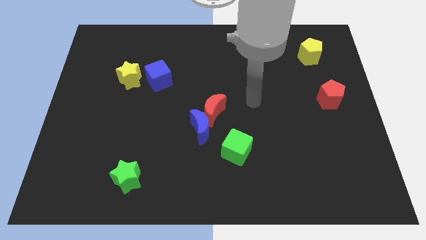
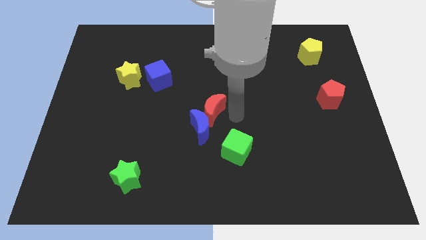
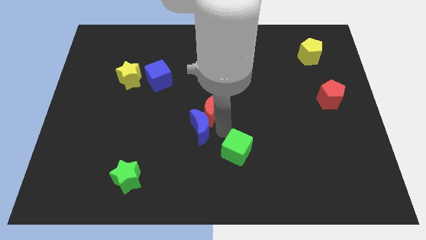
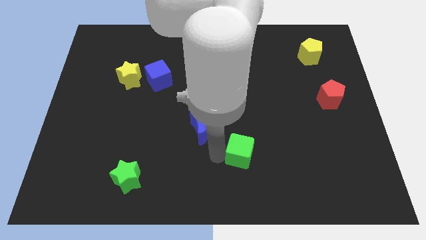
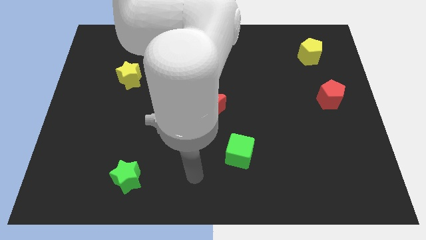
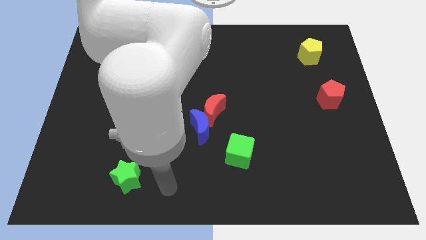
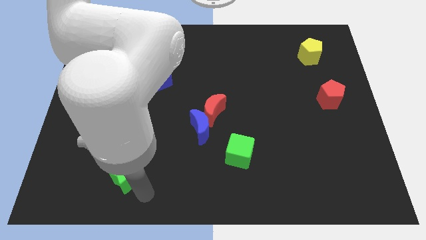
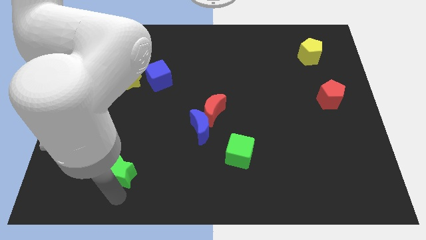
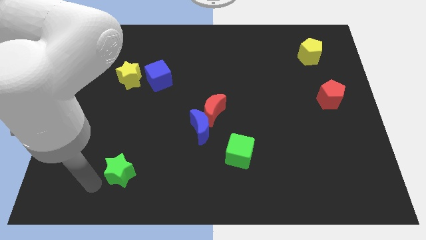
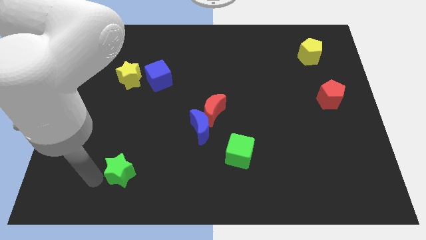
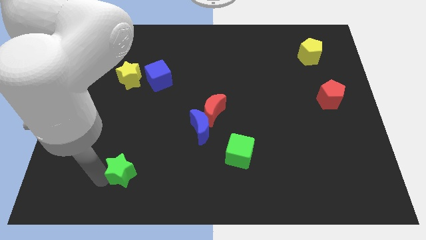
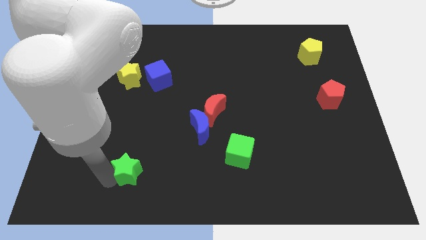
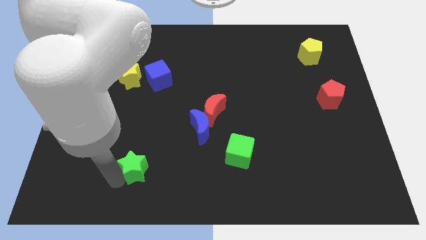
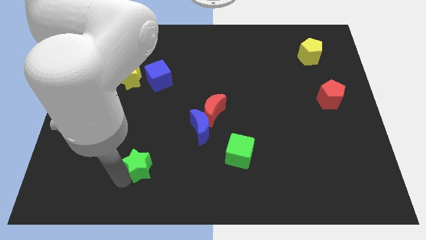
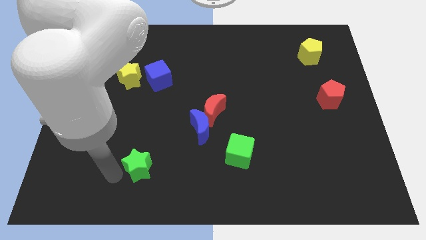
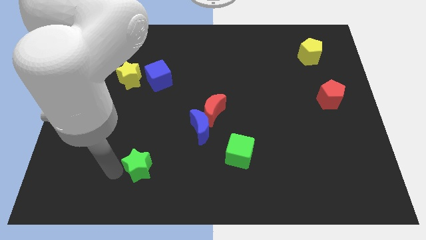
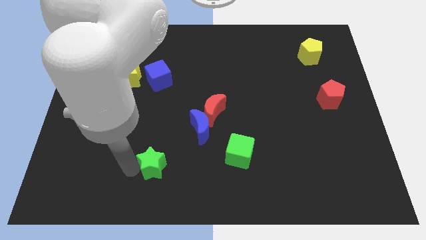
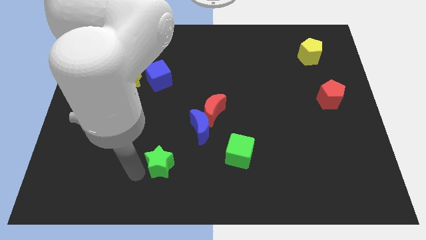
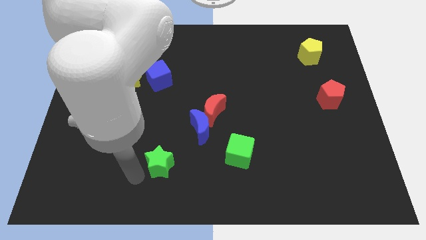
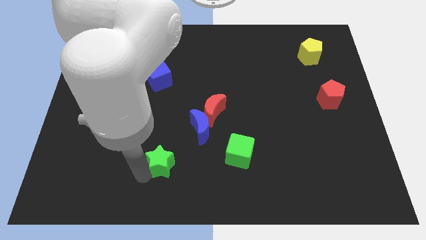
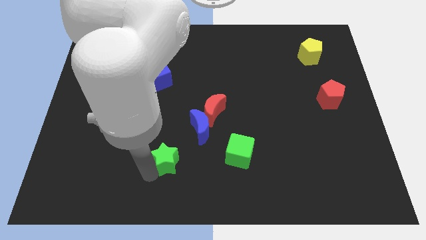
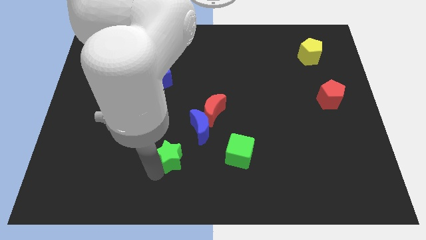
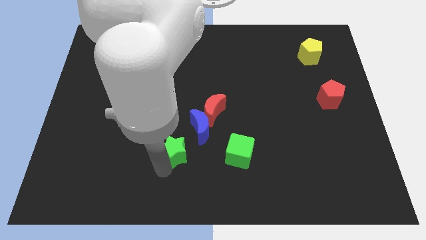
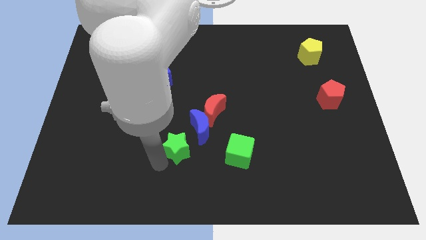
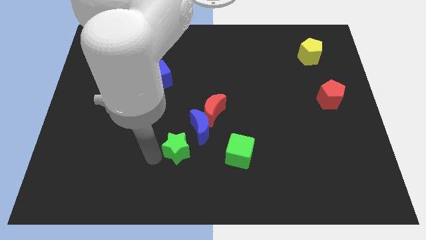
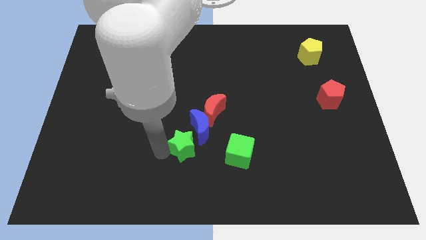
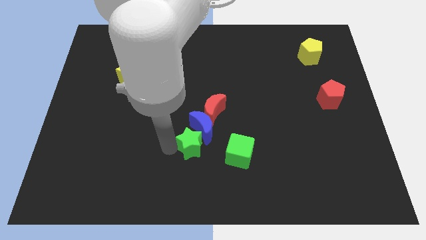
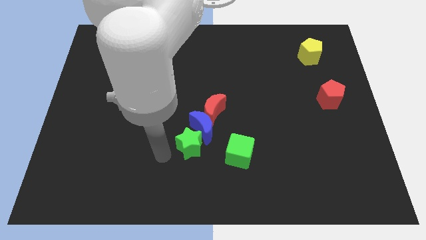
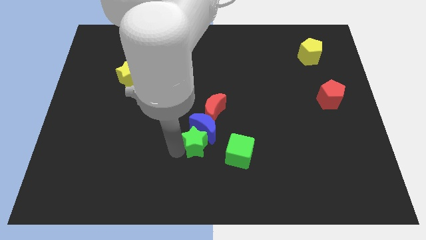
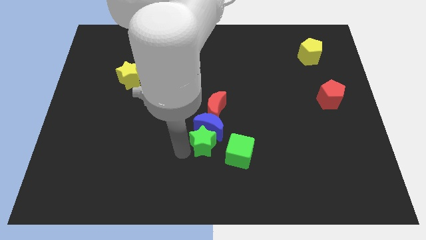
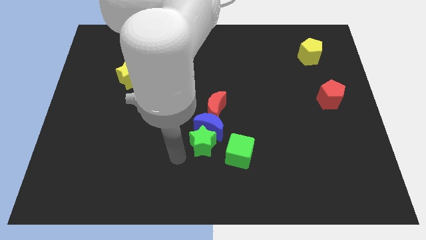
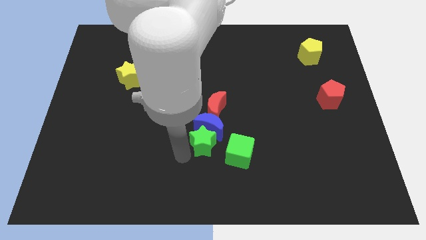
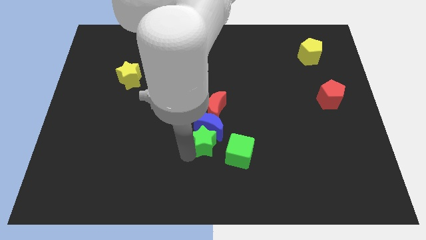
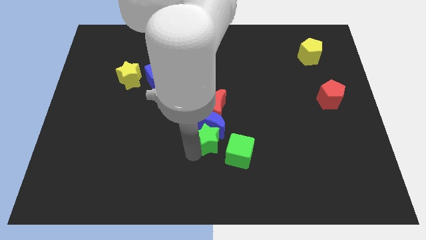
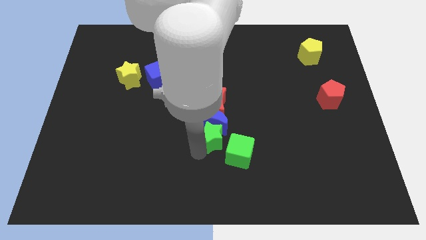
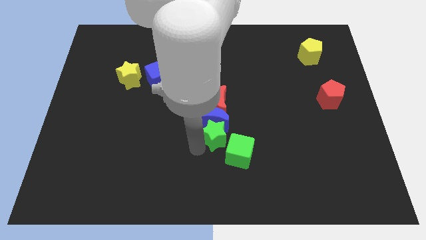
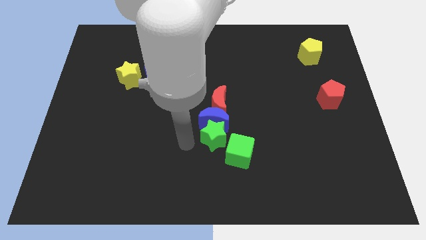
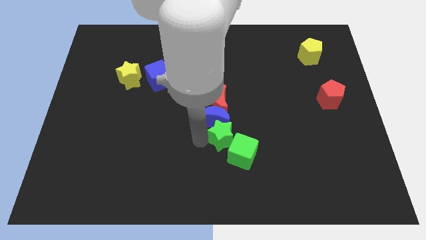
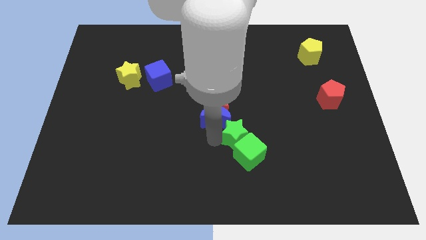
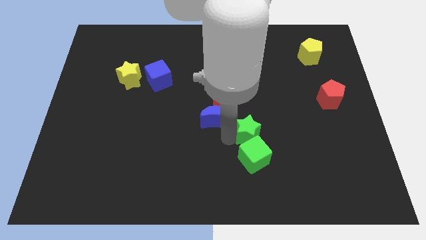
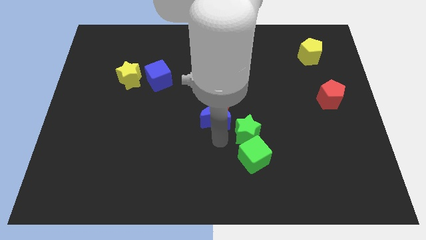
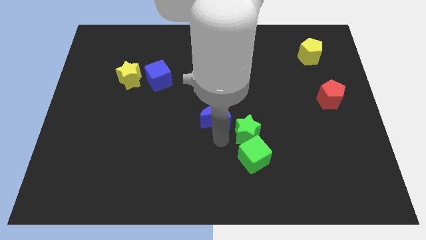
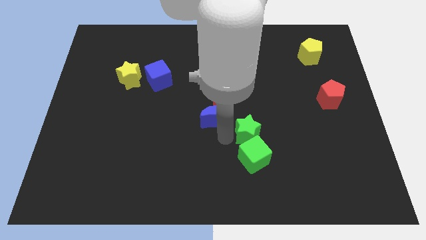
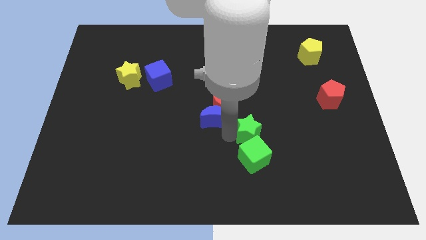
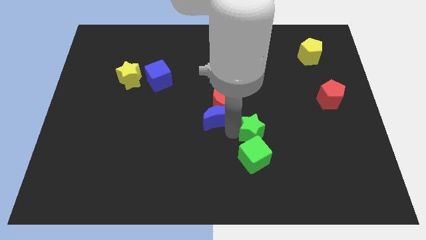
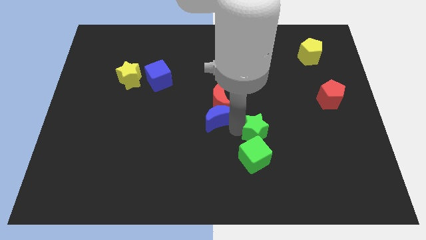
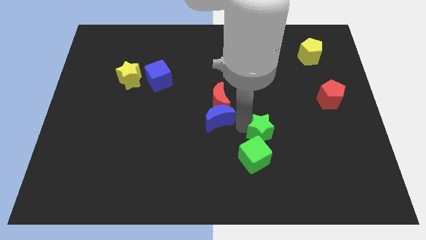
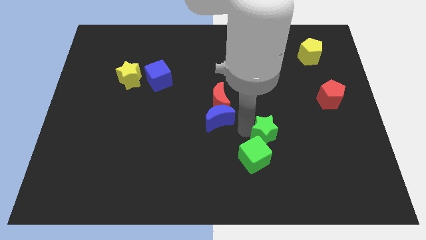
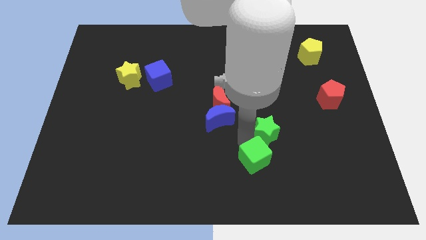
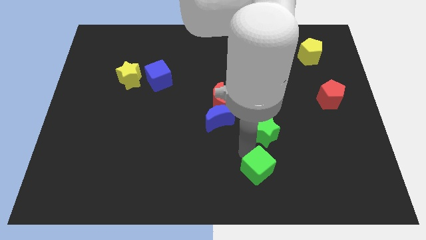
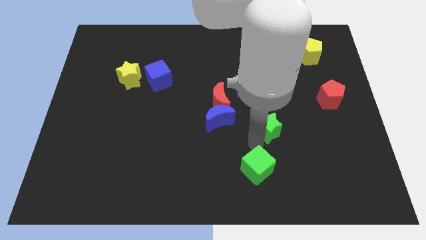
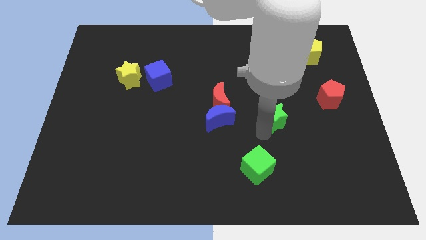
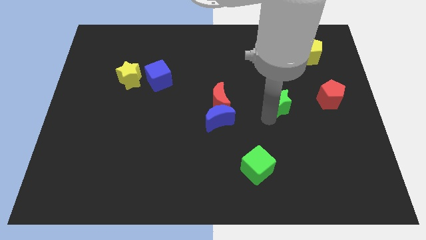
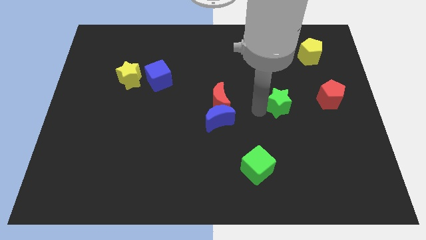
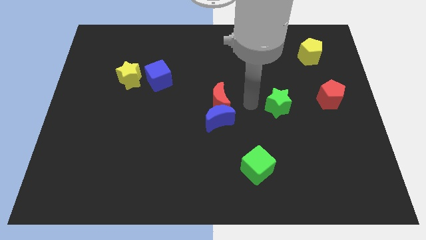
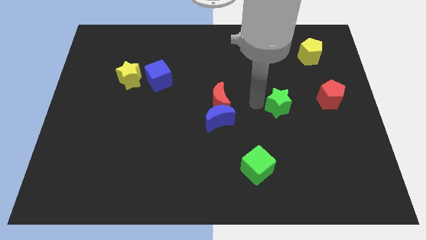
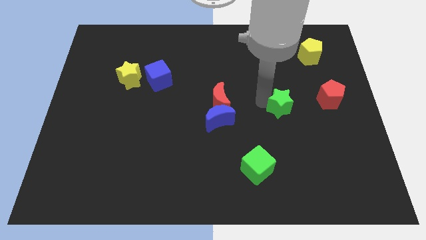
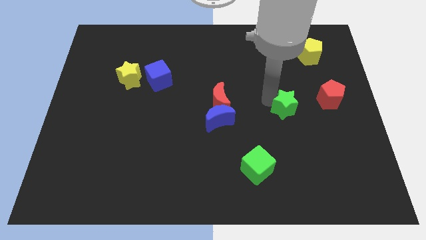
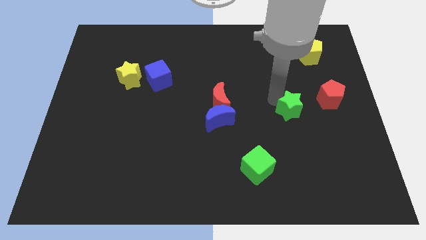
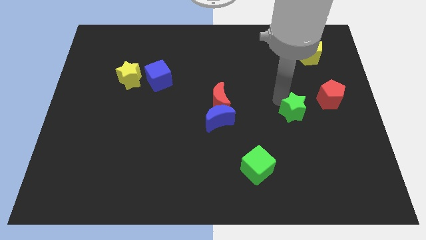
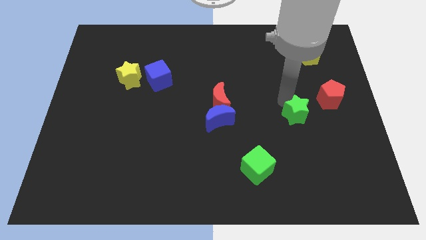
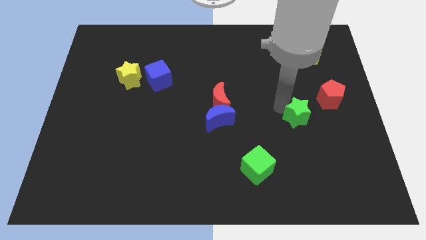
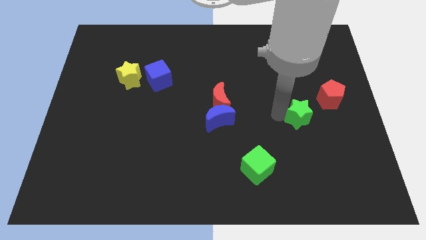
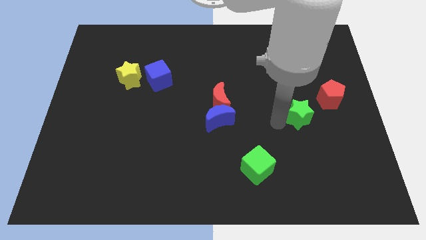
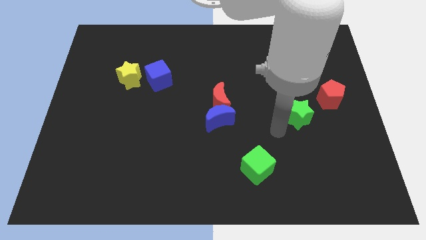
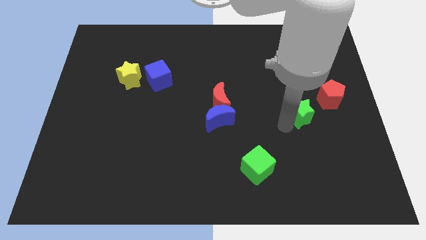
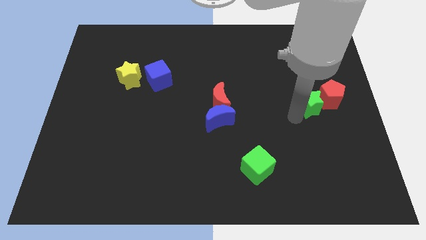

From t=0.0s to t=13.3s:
put the green star towards the red pentagon

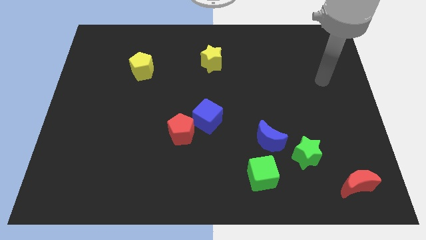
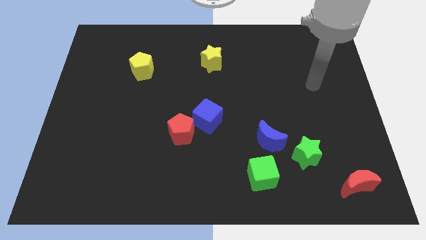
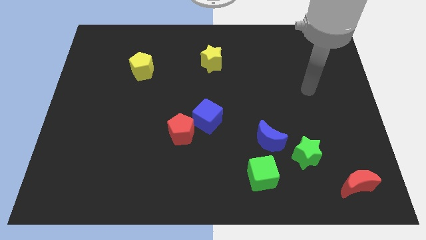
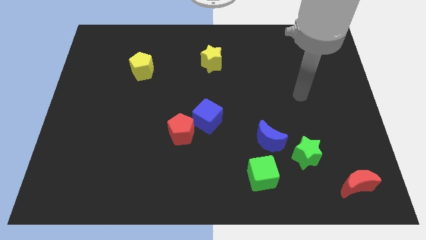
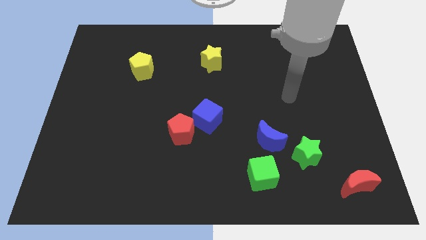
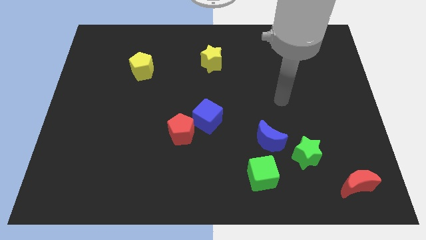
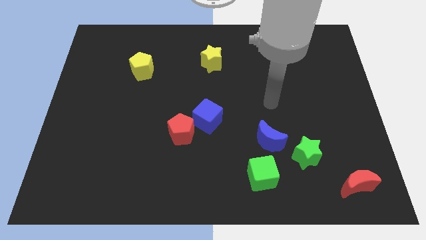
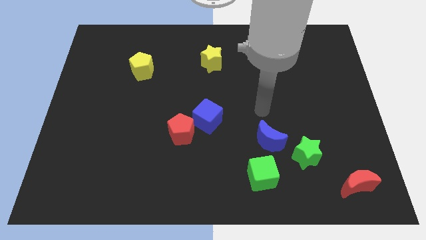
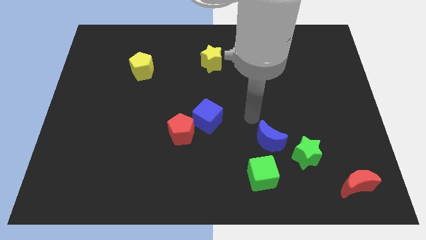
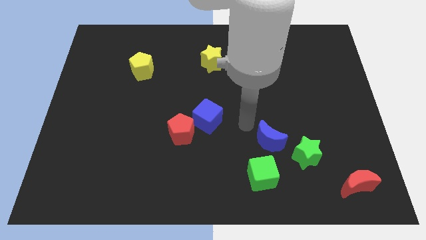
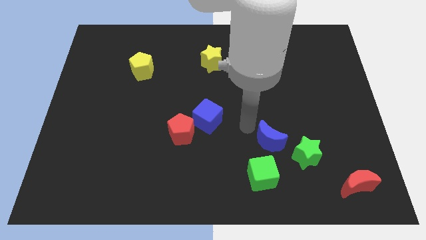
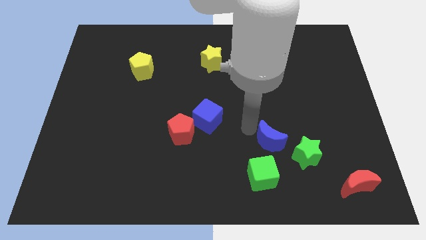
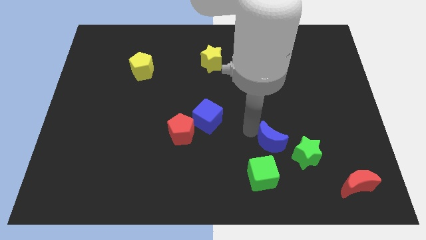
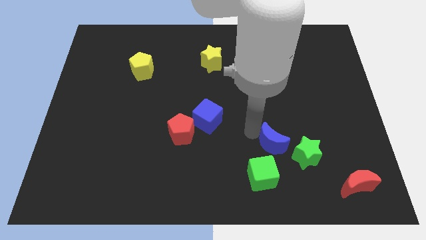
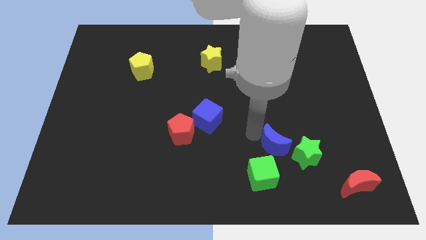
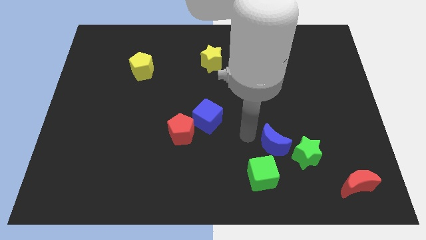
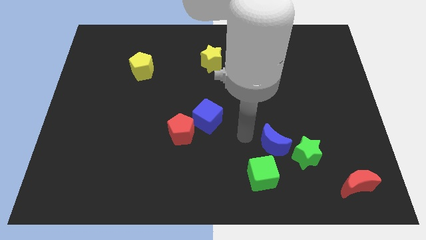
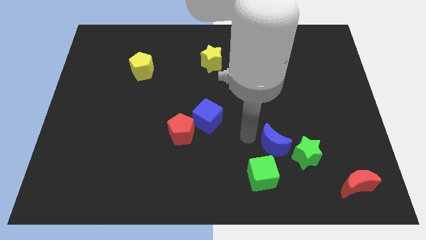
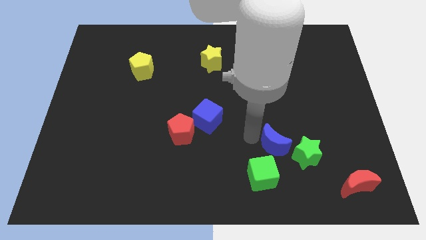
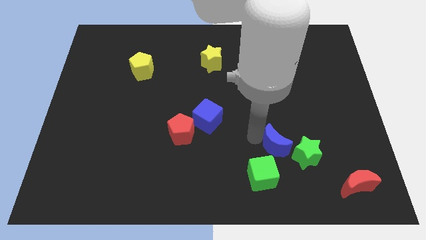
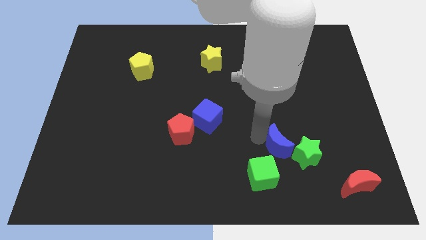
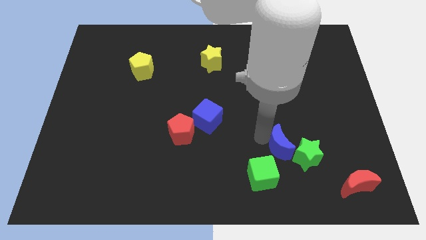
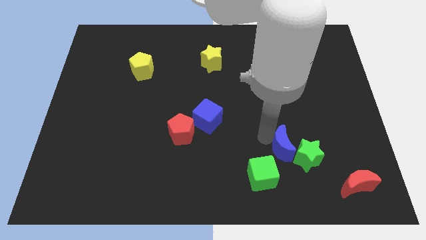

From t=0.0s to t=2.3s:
push the blue moon to the green star
